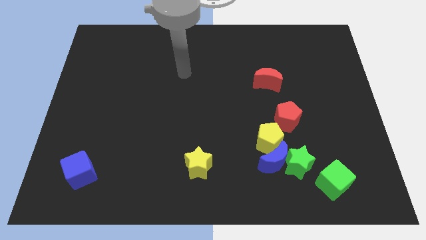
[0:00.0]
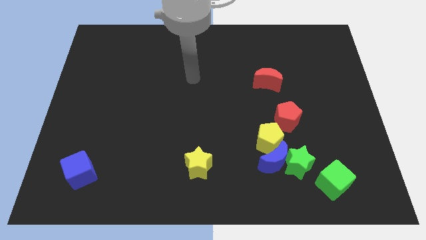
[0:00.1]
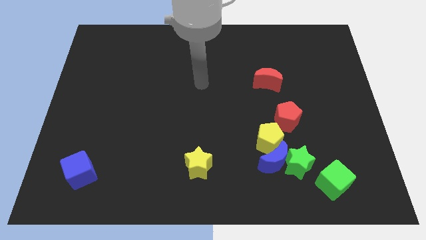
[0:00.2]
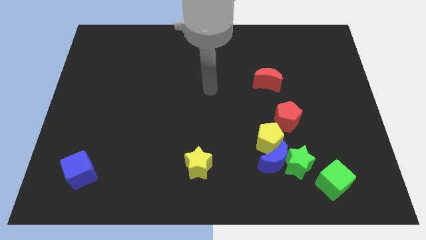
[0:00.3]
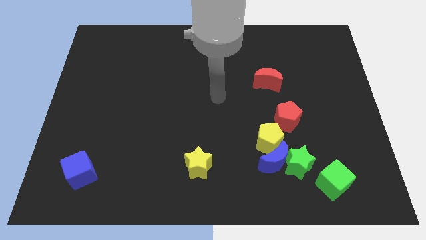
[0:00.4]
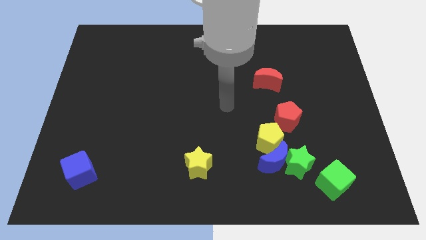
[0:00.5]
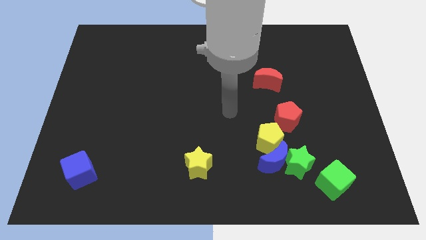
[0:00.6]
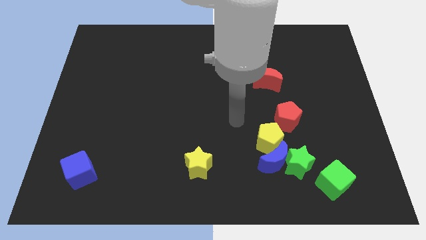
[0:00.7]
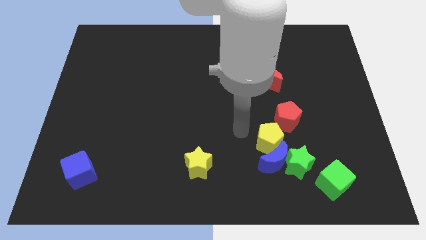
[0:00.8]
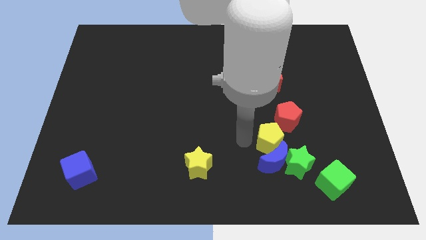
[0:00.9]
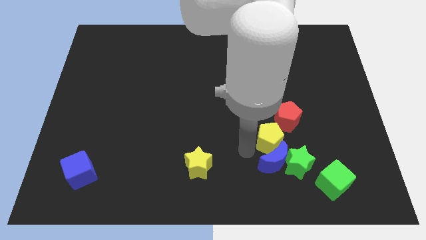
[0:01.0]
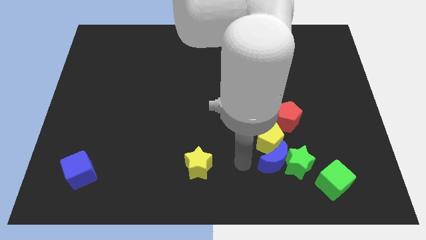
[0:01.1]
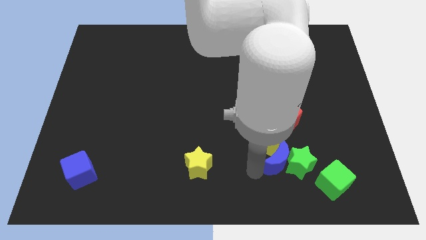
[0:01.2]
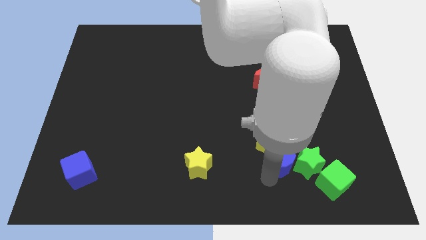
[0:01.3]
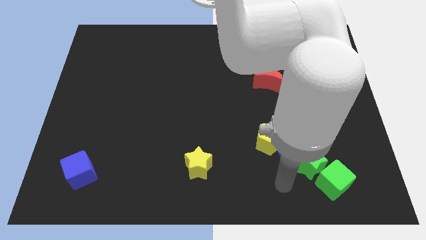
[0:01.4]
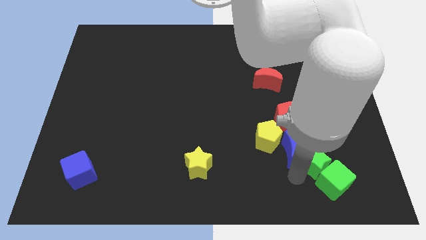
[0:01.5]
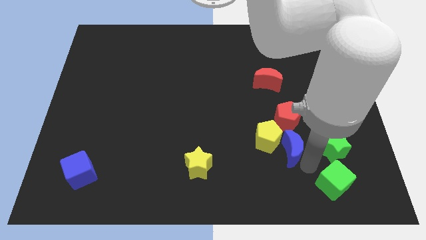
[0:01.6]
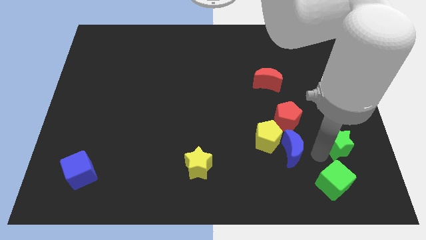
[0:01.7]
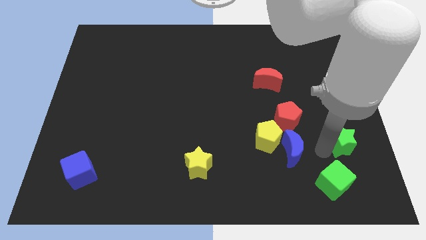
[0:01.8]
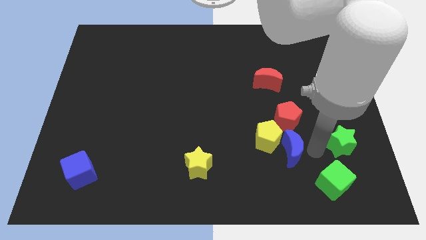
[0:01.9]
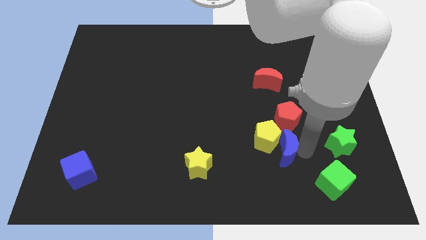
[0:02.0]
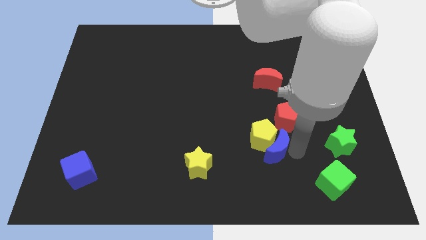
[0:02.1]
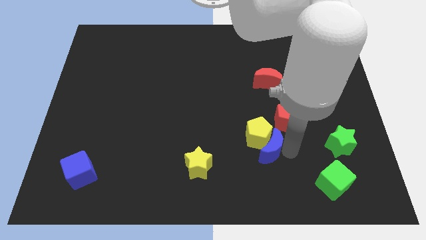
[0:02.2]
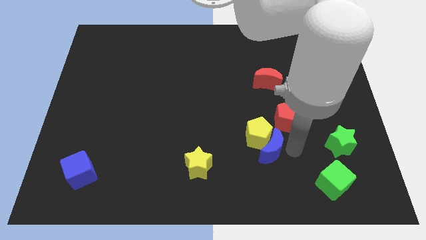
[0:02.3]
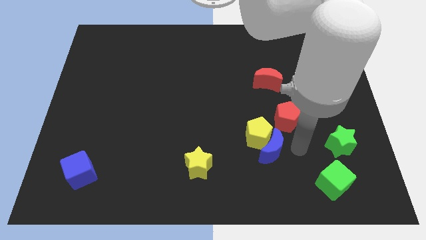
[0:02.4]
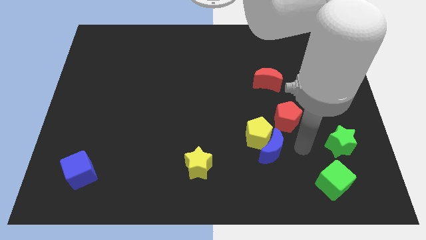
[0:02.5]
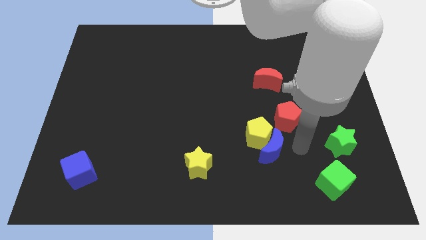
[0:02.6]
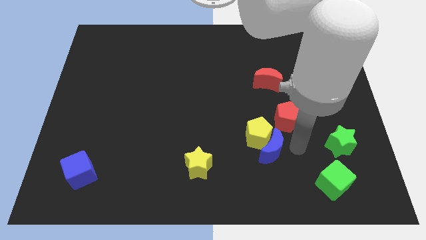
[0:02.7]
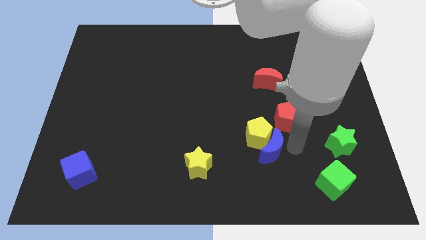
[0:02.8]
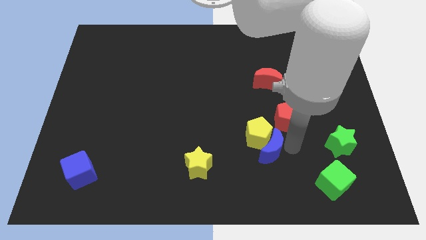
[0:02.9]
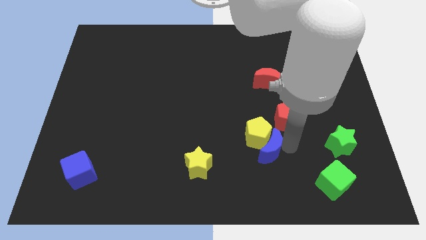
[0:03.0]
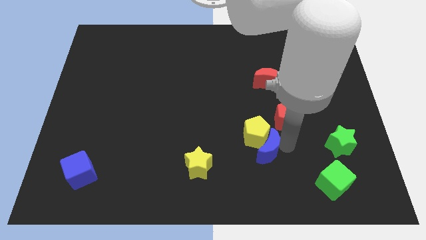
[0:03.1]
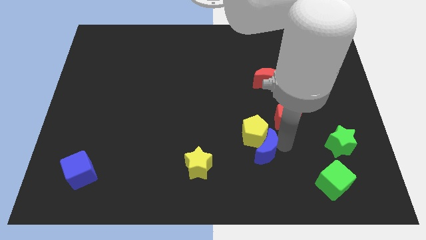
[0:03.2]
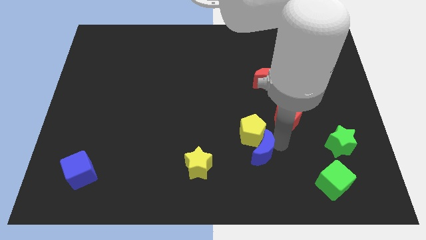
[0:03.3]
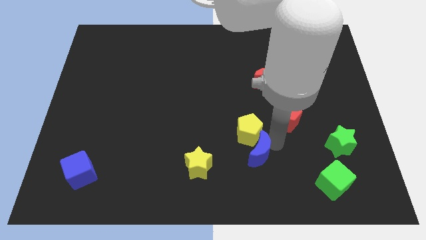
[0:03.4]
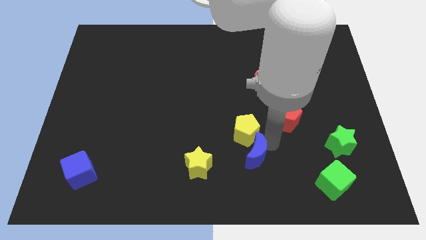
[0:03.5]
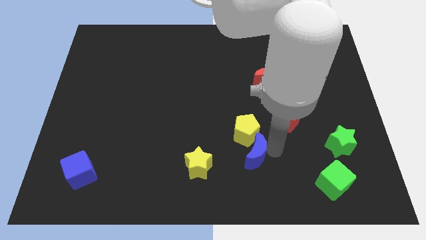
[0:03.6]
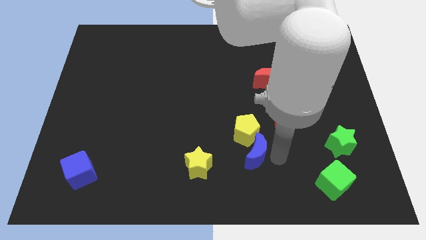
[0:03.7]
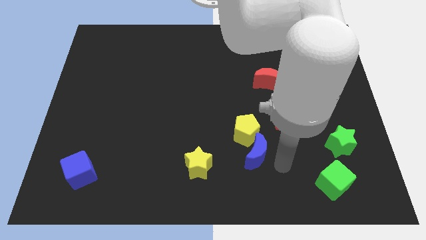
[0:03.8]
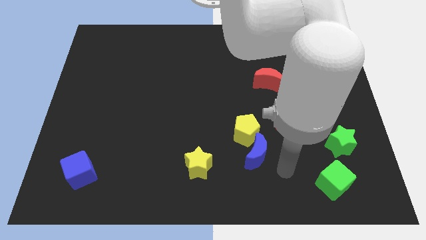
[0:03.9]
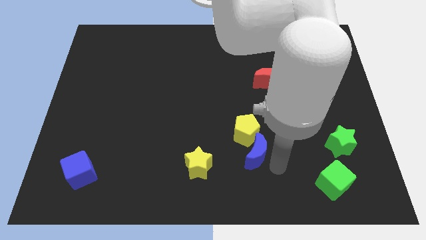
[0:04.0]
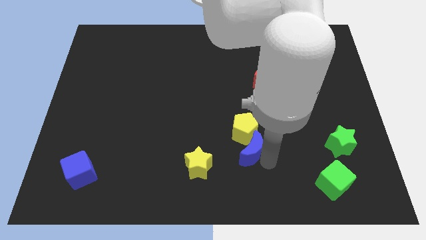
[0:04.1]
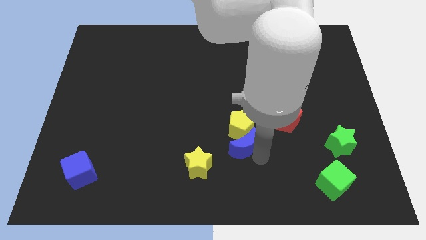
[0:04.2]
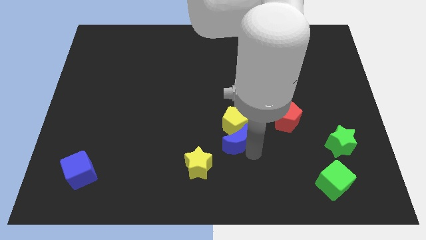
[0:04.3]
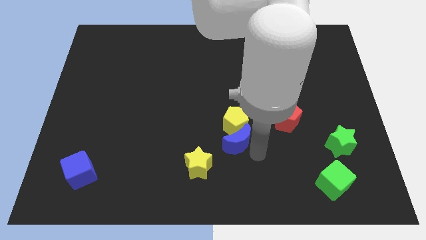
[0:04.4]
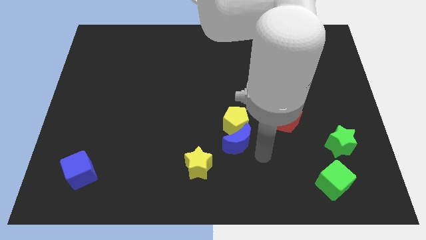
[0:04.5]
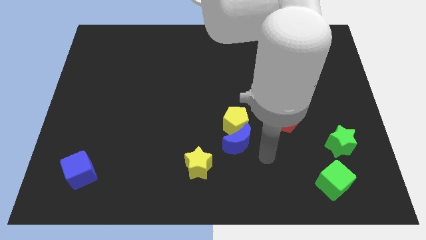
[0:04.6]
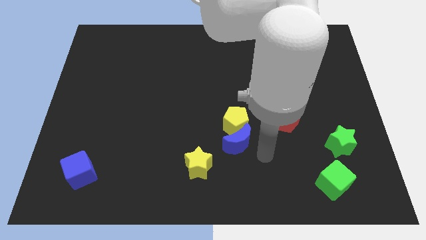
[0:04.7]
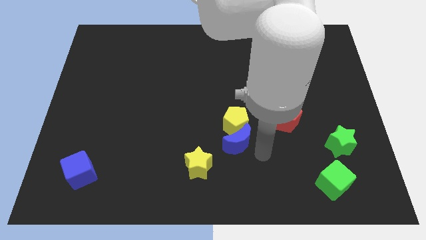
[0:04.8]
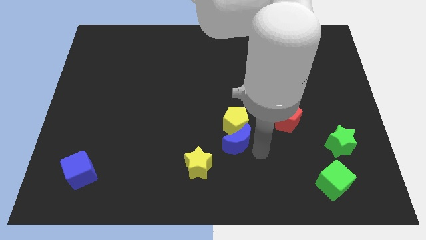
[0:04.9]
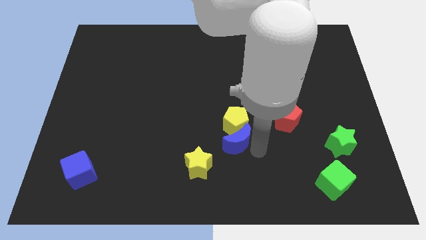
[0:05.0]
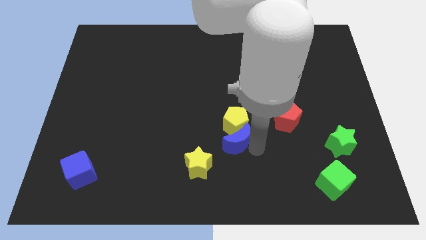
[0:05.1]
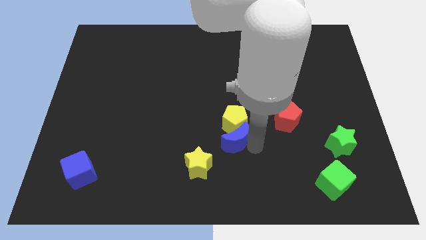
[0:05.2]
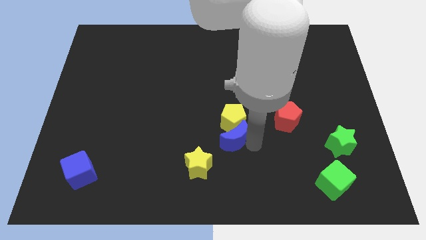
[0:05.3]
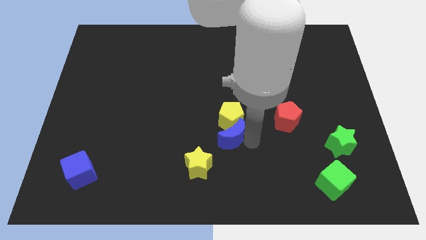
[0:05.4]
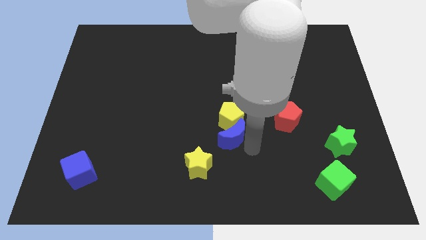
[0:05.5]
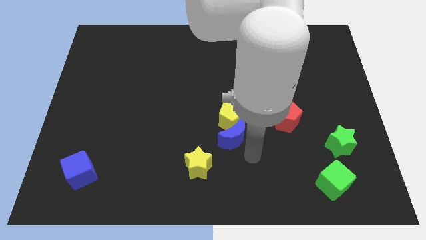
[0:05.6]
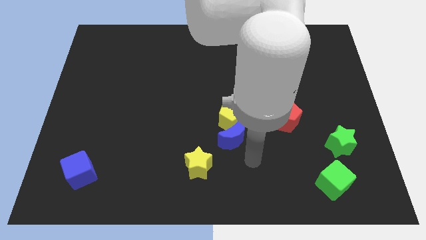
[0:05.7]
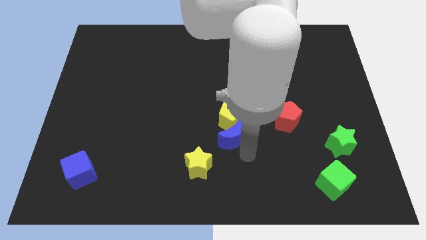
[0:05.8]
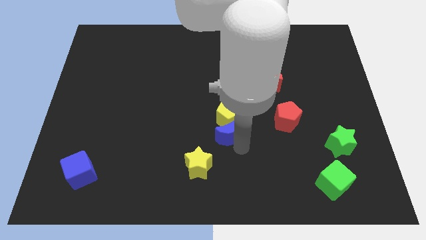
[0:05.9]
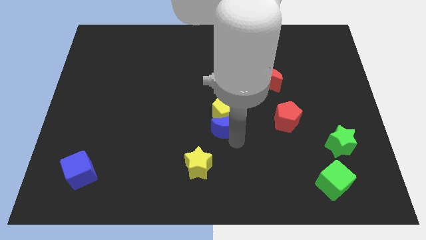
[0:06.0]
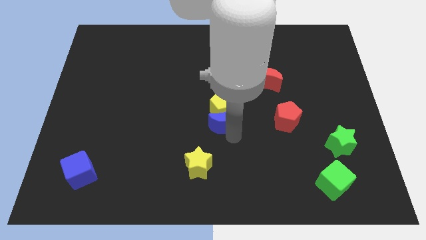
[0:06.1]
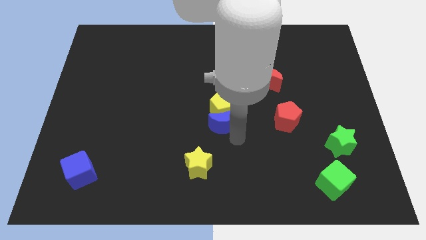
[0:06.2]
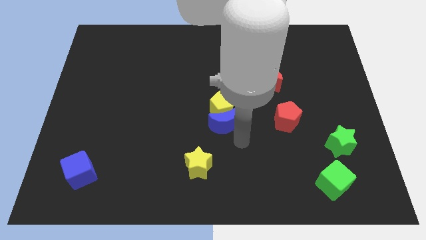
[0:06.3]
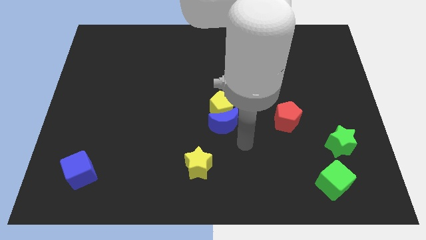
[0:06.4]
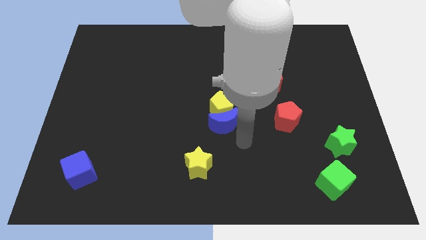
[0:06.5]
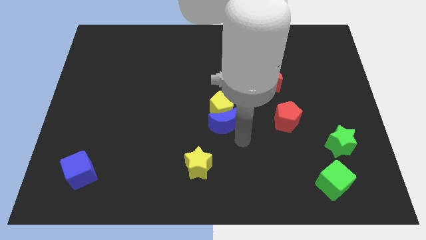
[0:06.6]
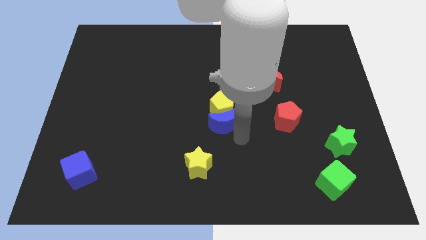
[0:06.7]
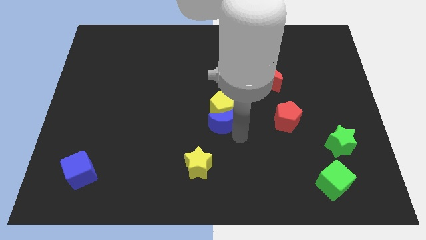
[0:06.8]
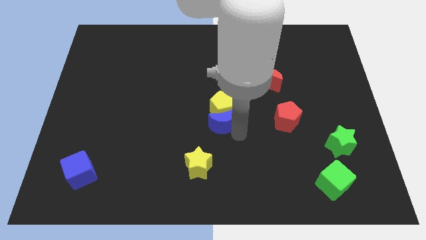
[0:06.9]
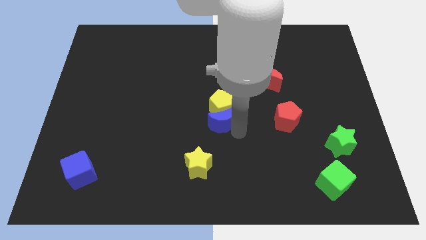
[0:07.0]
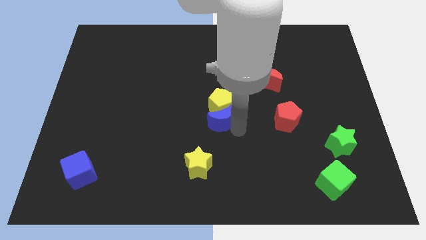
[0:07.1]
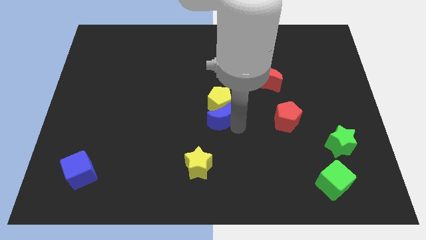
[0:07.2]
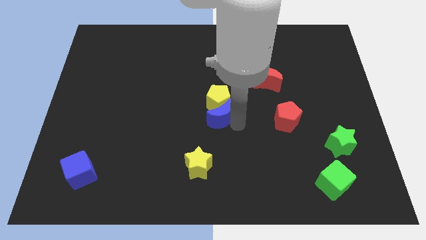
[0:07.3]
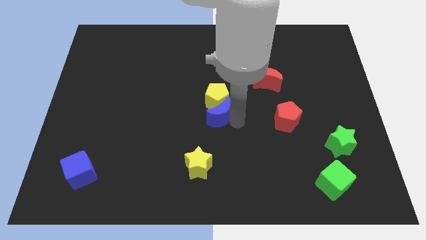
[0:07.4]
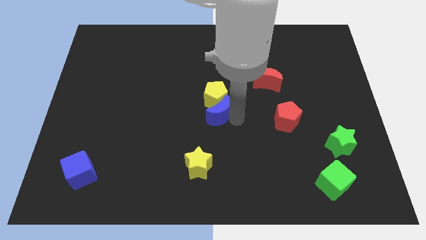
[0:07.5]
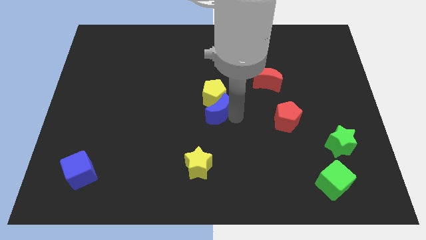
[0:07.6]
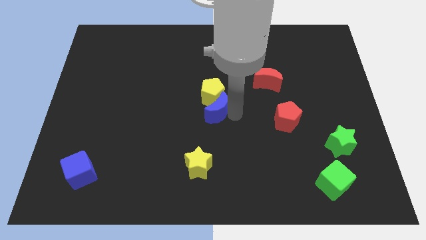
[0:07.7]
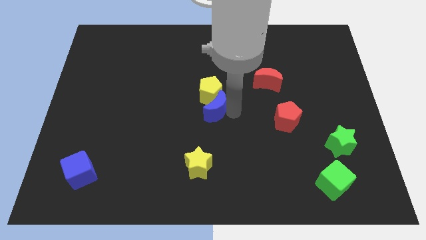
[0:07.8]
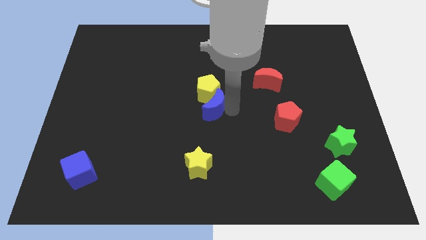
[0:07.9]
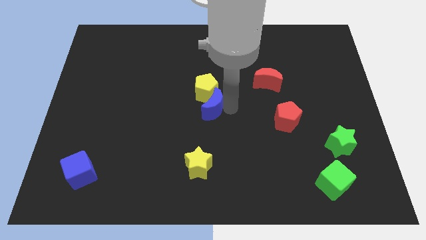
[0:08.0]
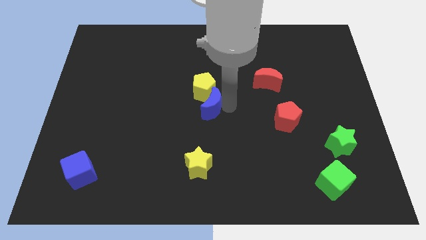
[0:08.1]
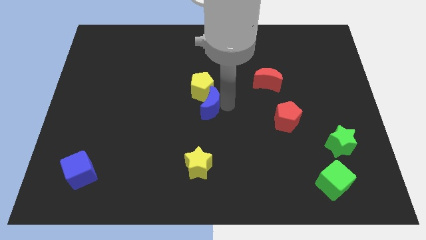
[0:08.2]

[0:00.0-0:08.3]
move the blue moon up and then left
